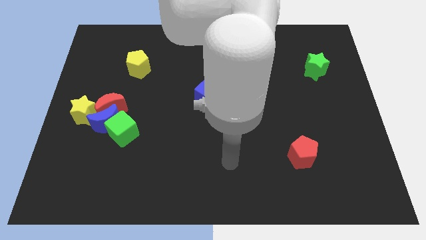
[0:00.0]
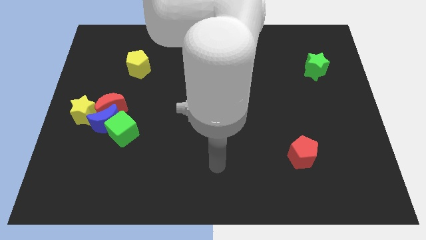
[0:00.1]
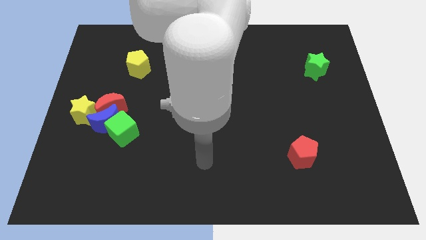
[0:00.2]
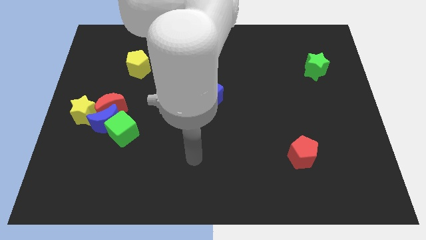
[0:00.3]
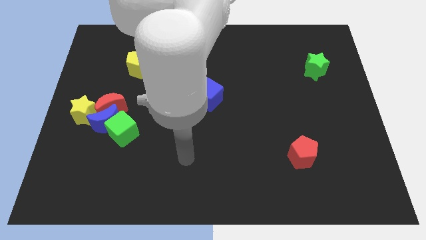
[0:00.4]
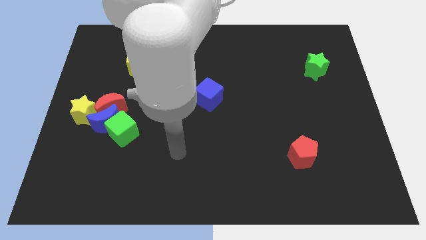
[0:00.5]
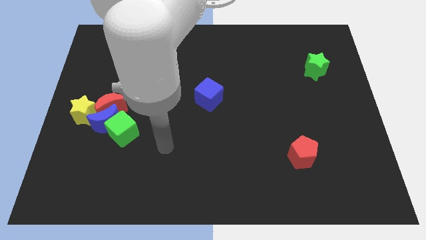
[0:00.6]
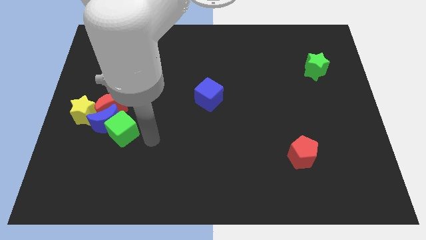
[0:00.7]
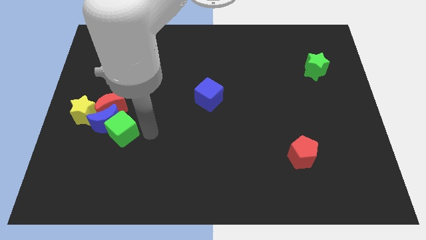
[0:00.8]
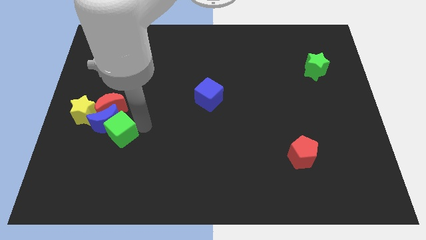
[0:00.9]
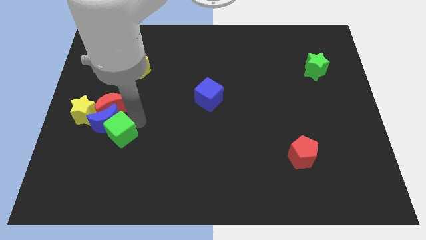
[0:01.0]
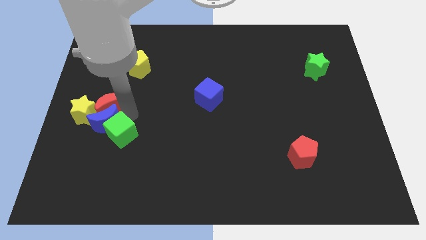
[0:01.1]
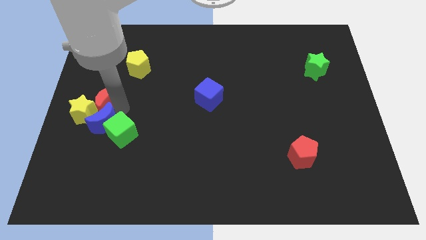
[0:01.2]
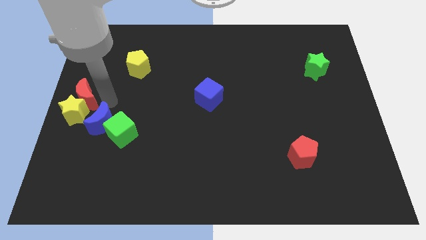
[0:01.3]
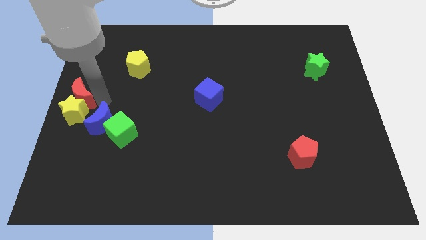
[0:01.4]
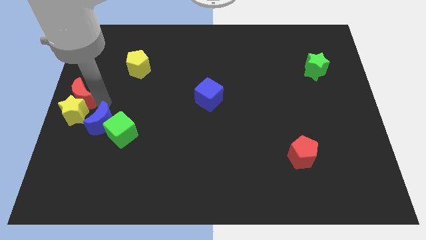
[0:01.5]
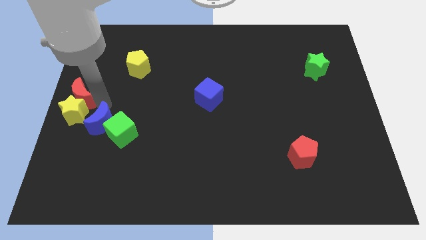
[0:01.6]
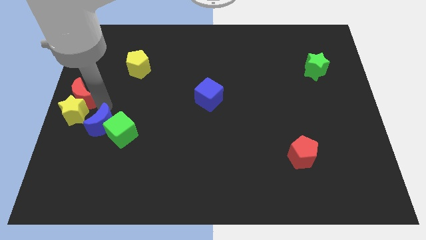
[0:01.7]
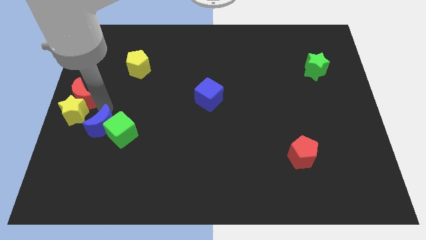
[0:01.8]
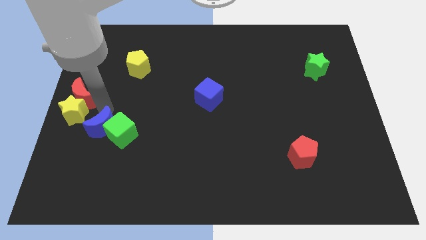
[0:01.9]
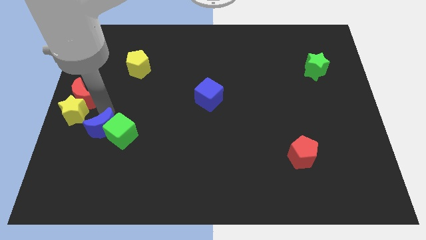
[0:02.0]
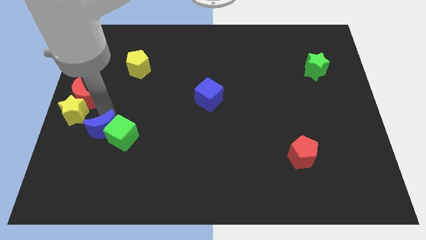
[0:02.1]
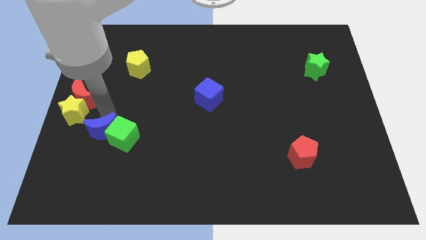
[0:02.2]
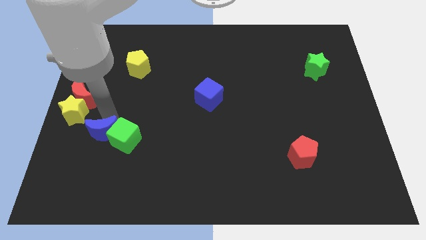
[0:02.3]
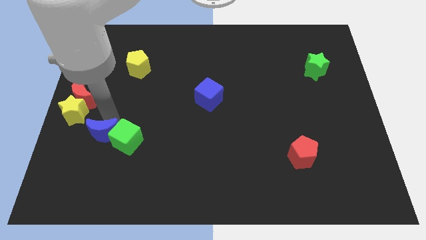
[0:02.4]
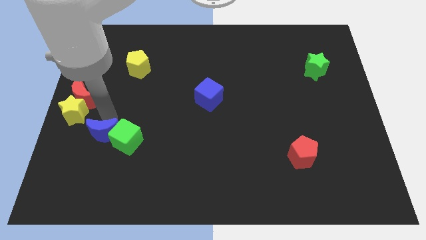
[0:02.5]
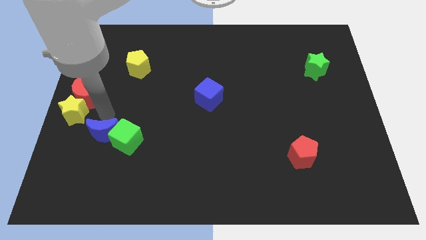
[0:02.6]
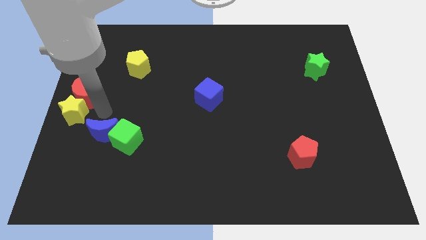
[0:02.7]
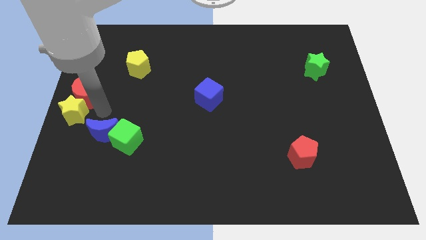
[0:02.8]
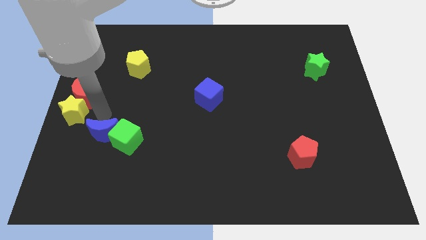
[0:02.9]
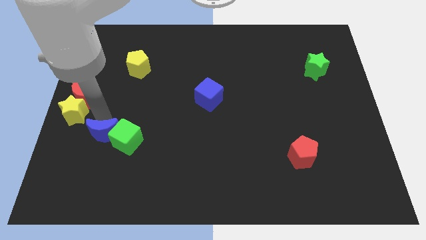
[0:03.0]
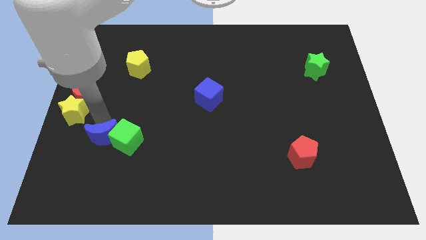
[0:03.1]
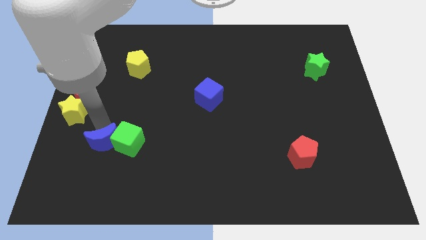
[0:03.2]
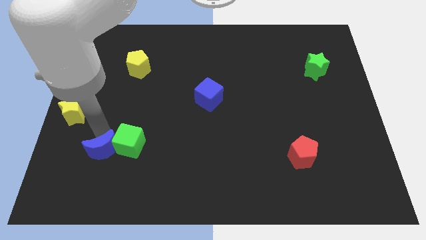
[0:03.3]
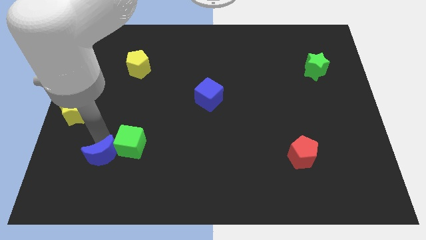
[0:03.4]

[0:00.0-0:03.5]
pull the blue moon apart from the group of blocks

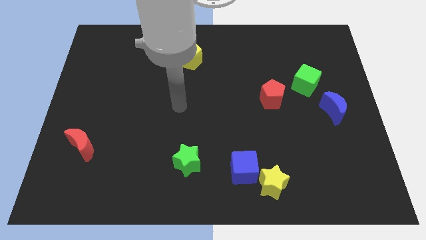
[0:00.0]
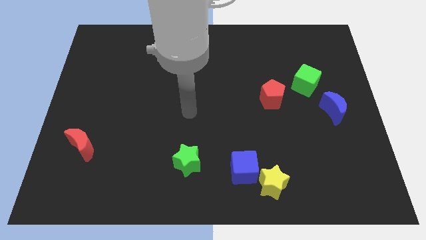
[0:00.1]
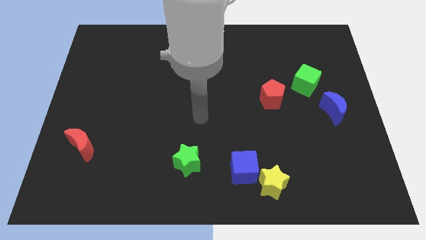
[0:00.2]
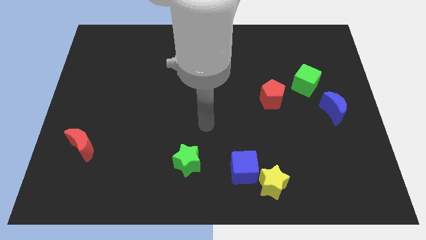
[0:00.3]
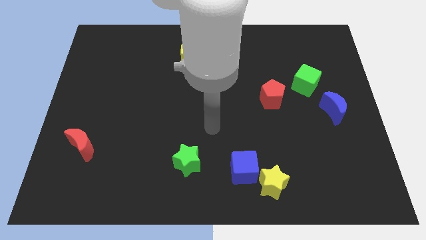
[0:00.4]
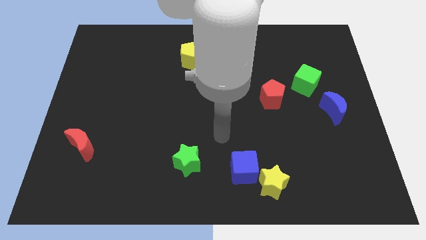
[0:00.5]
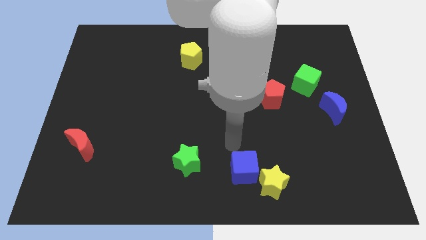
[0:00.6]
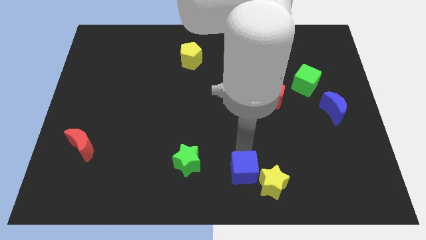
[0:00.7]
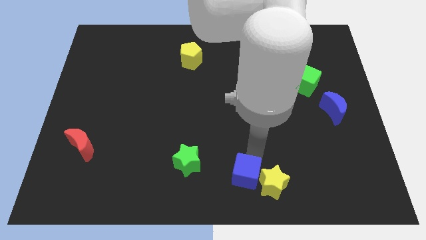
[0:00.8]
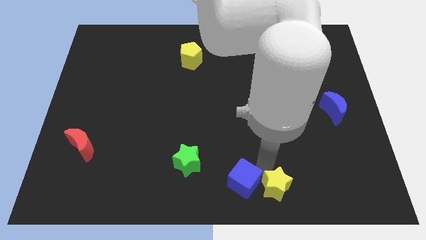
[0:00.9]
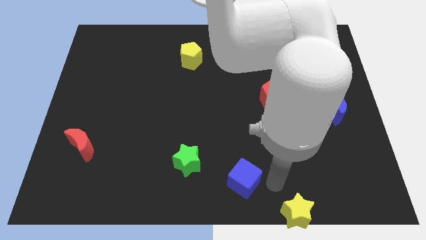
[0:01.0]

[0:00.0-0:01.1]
pull the blue cube apart from the yellow star

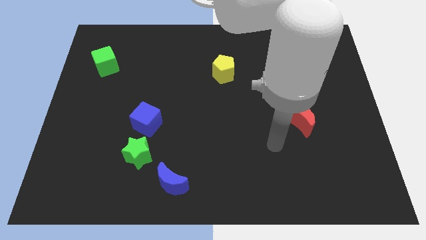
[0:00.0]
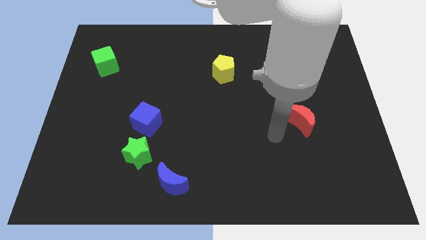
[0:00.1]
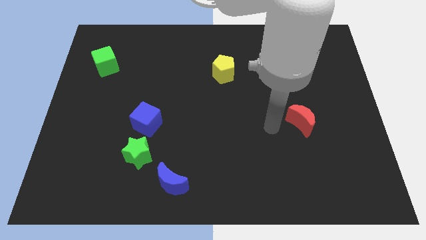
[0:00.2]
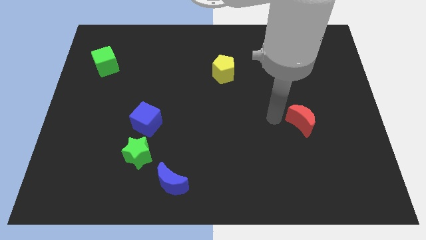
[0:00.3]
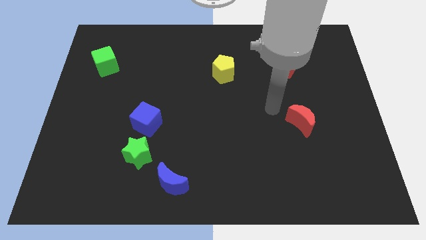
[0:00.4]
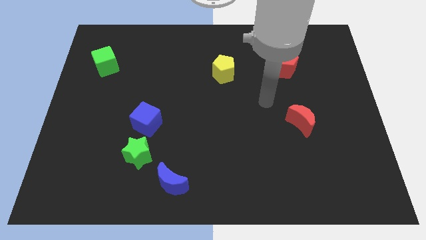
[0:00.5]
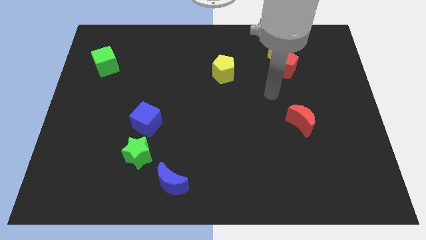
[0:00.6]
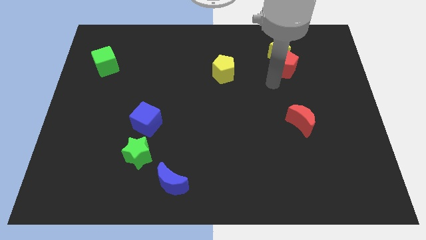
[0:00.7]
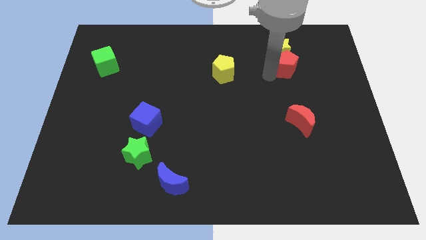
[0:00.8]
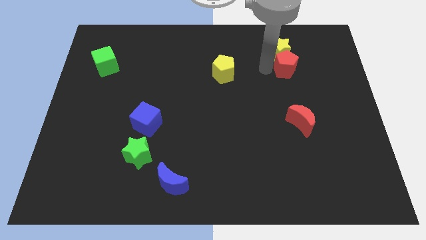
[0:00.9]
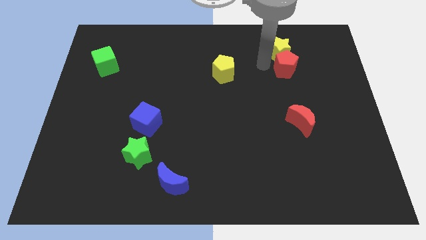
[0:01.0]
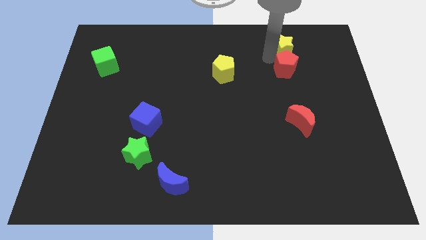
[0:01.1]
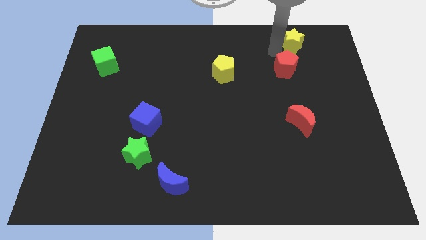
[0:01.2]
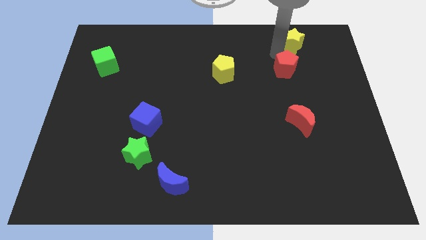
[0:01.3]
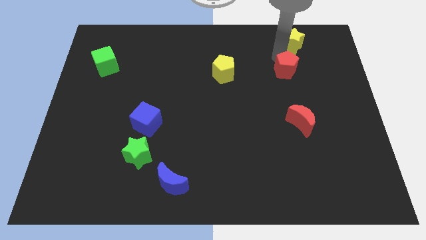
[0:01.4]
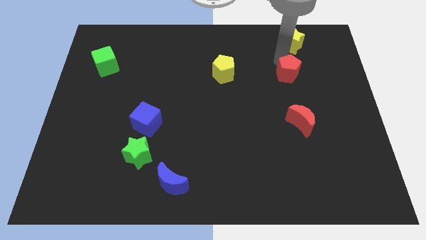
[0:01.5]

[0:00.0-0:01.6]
pull the red pentagon apart from the yellow star

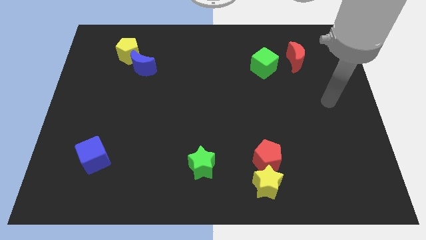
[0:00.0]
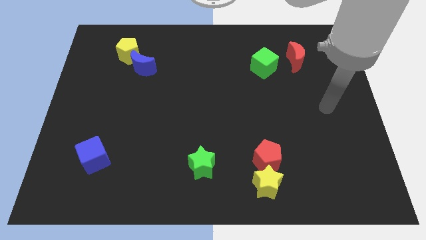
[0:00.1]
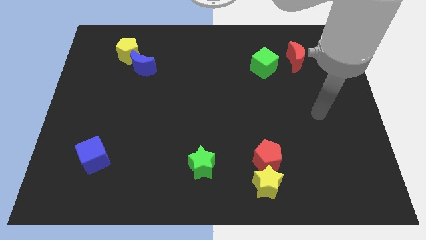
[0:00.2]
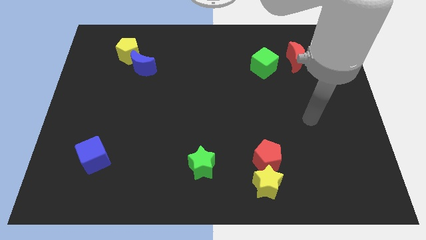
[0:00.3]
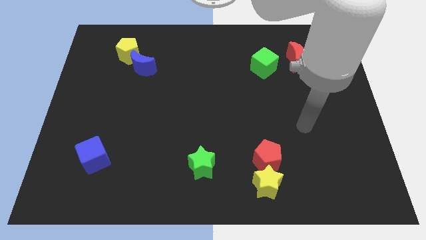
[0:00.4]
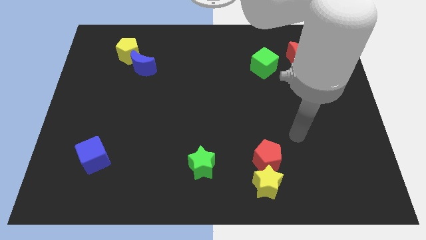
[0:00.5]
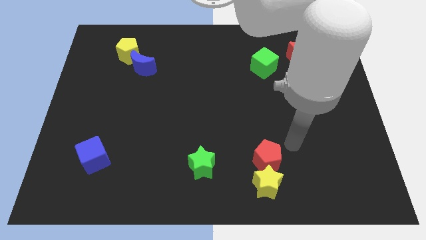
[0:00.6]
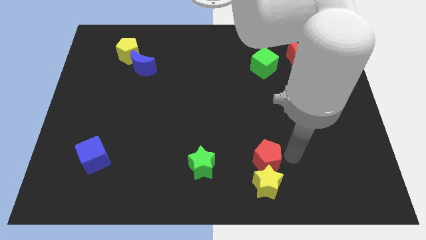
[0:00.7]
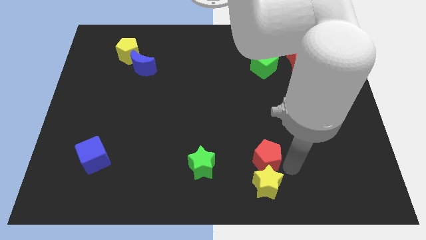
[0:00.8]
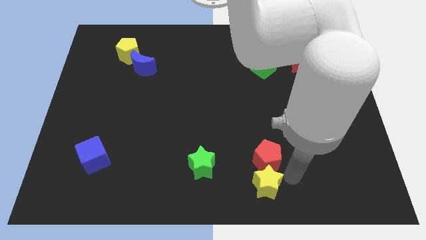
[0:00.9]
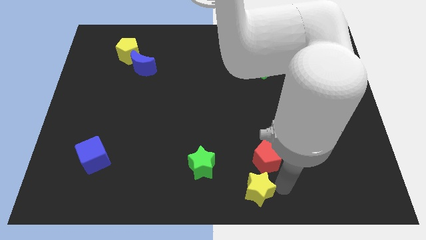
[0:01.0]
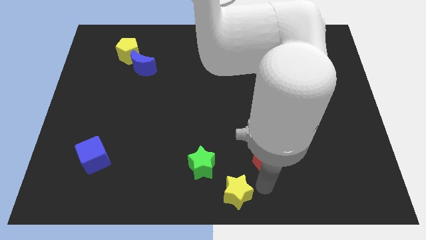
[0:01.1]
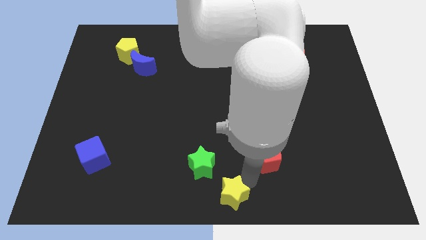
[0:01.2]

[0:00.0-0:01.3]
separate the red pentagon from the yellow star

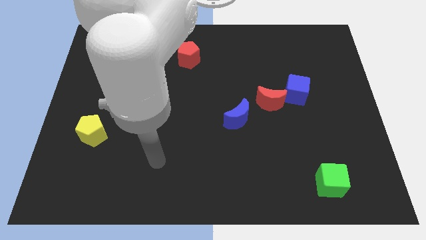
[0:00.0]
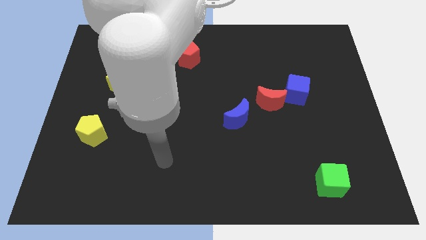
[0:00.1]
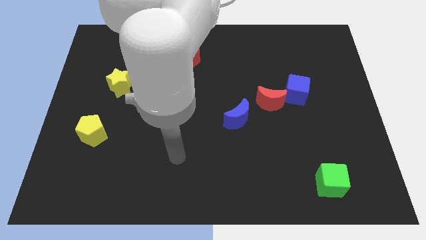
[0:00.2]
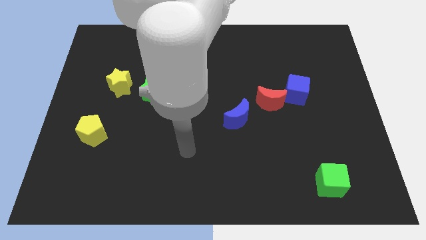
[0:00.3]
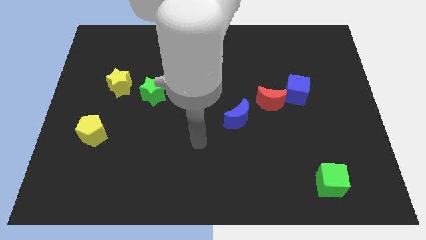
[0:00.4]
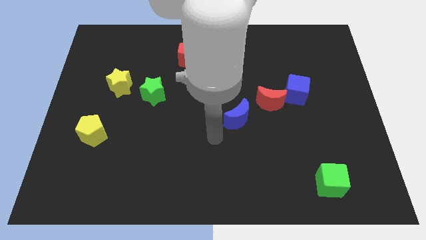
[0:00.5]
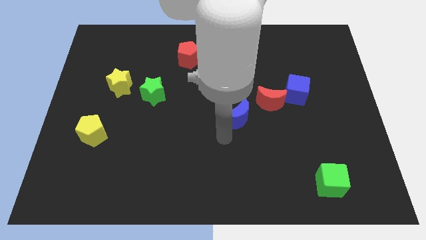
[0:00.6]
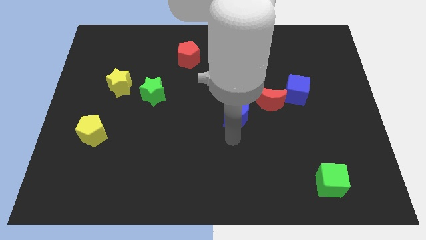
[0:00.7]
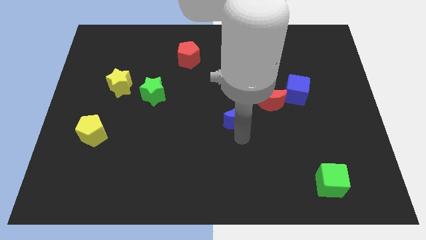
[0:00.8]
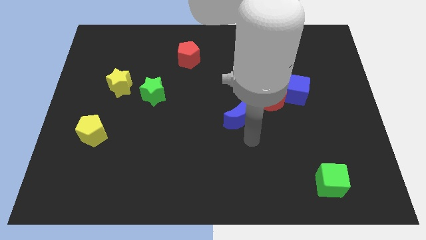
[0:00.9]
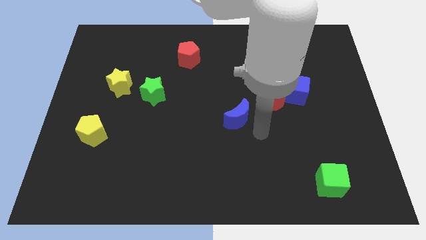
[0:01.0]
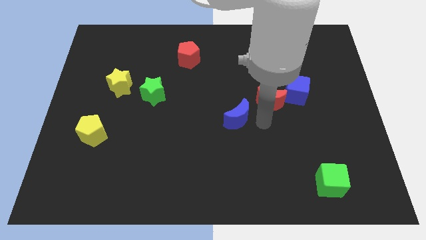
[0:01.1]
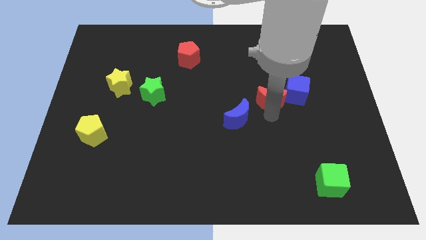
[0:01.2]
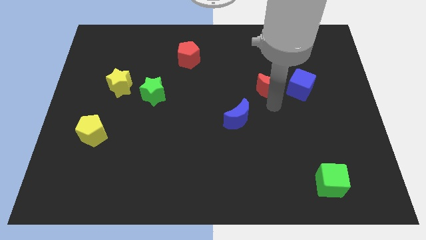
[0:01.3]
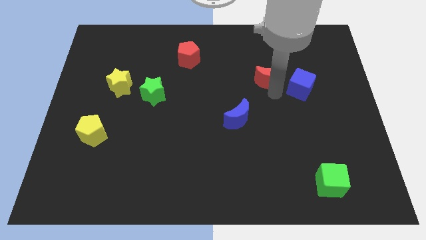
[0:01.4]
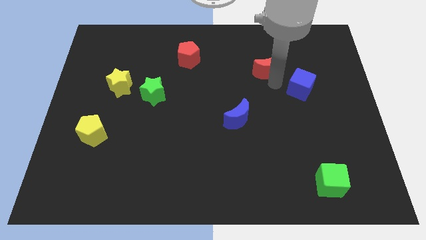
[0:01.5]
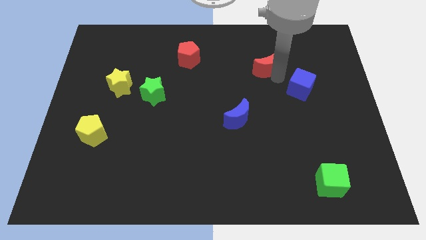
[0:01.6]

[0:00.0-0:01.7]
pull the blue cube apart from the red moon
